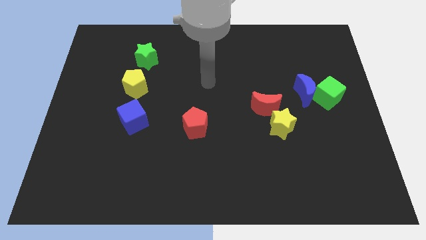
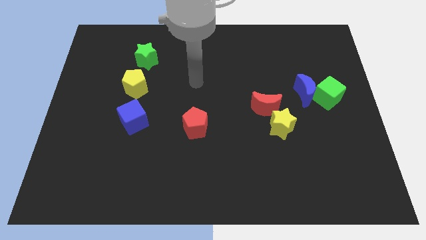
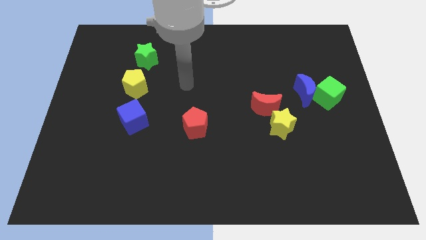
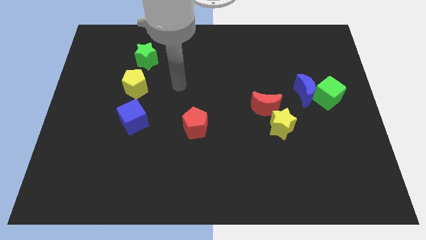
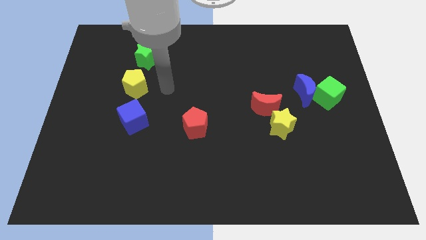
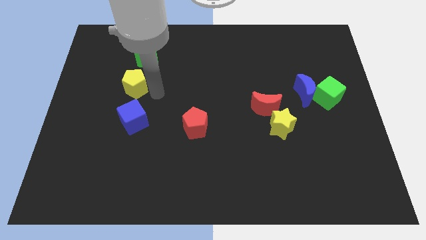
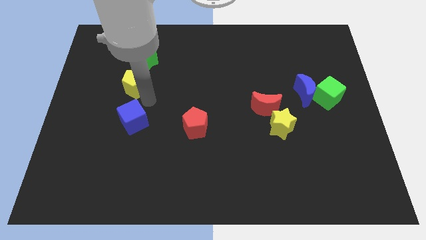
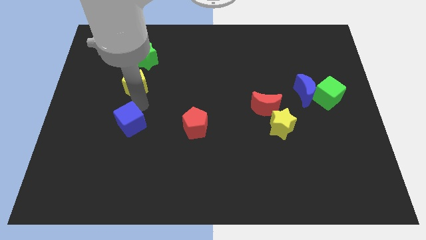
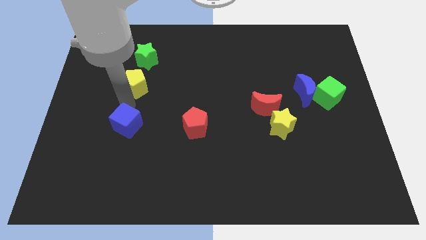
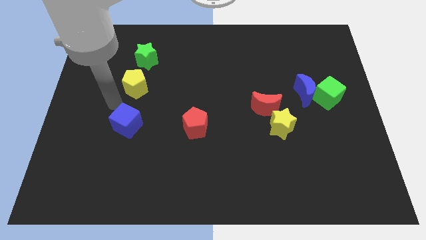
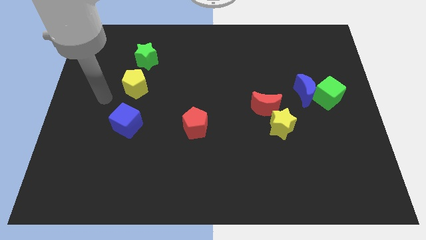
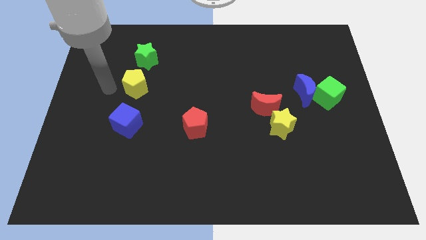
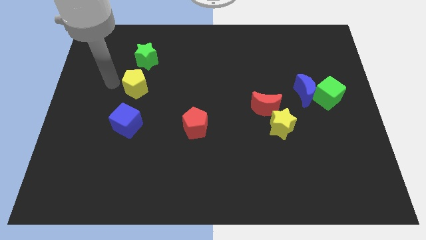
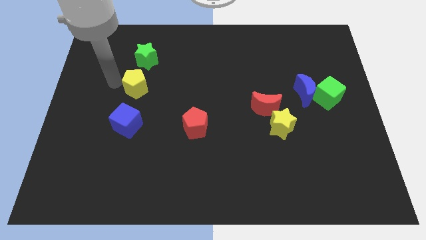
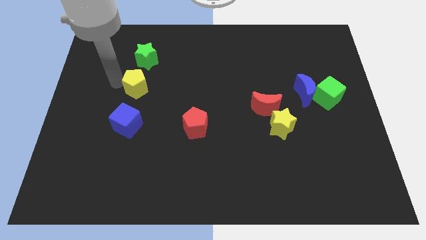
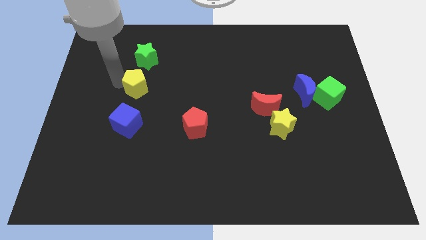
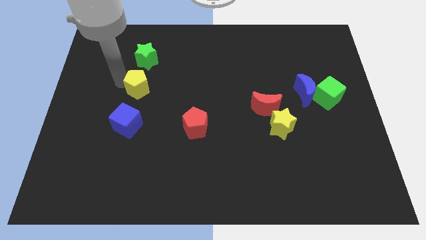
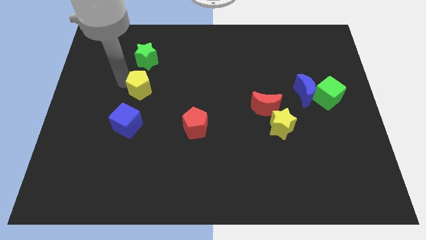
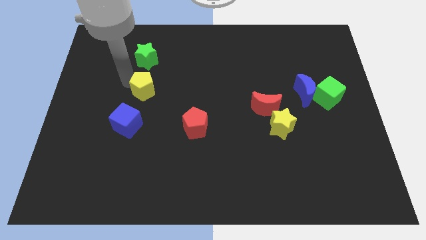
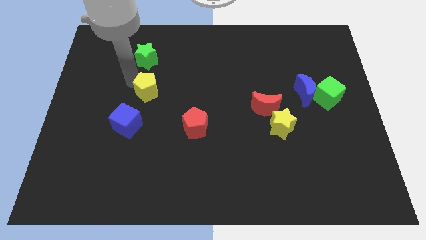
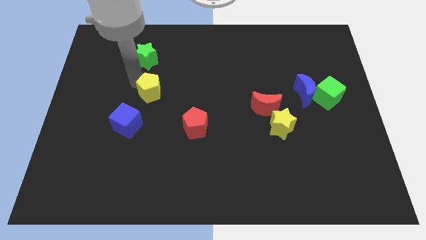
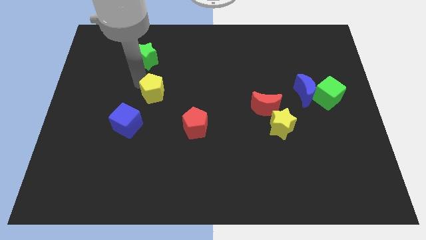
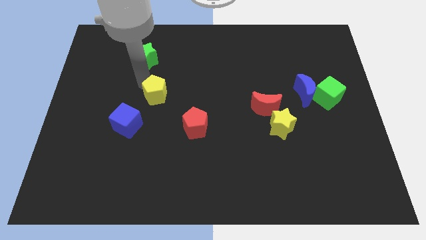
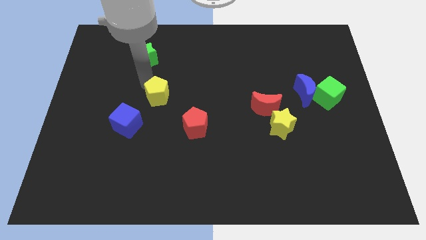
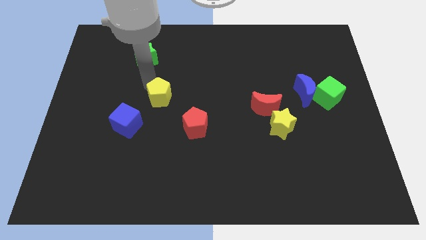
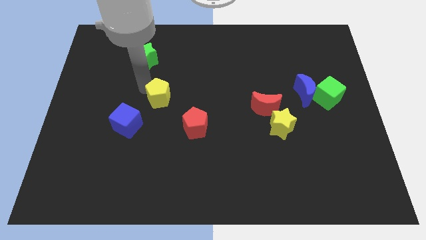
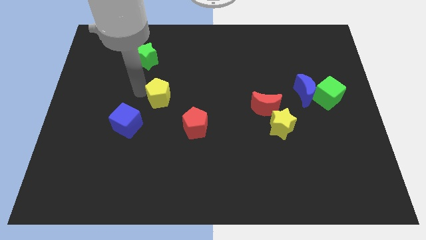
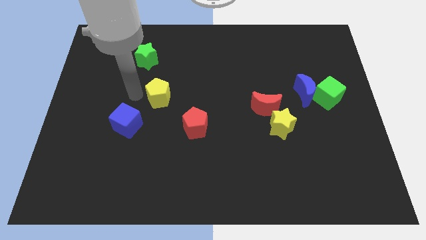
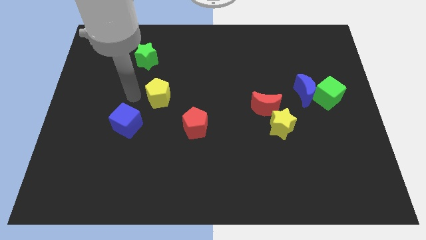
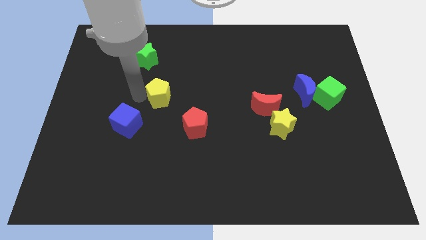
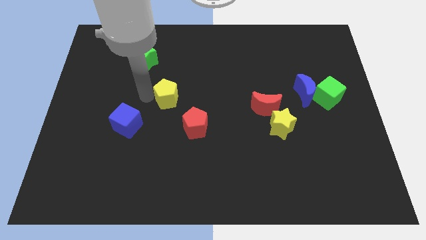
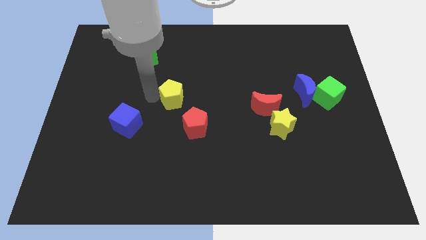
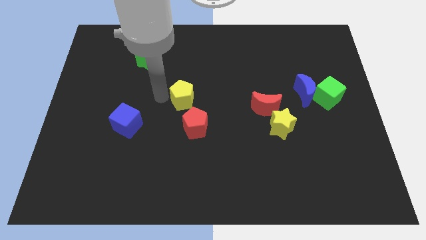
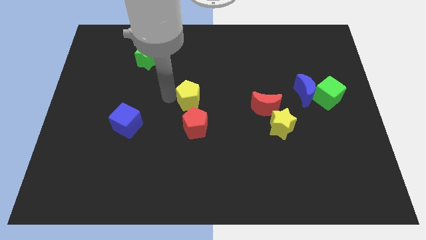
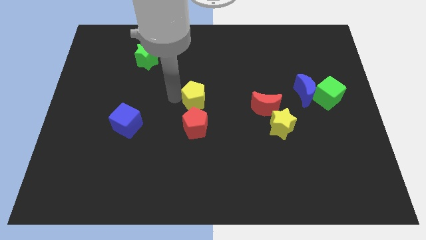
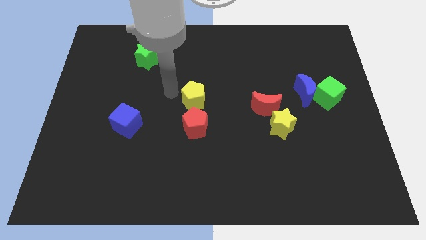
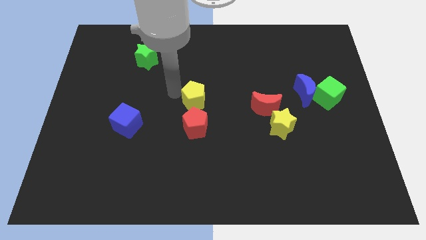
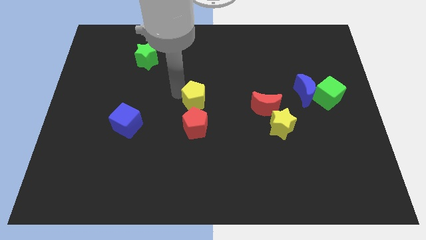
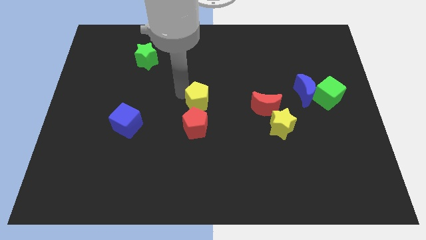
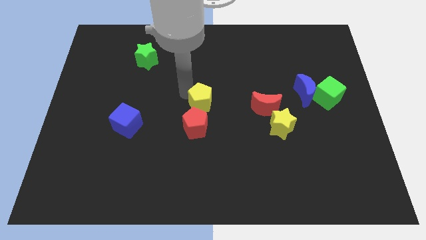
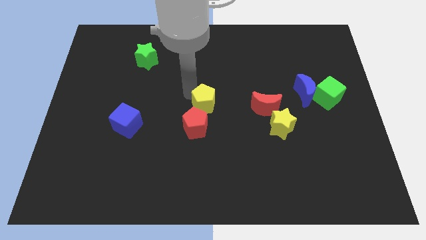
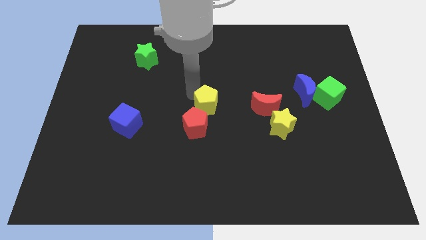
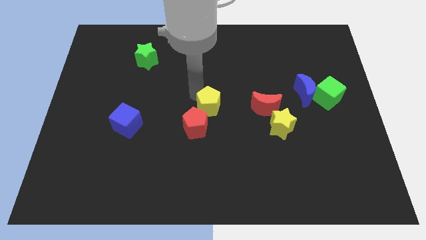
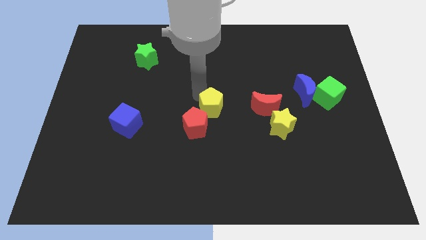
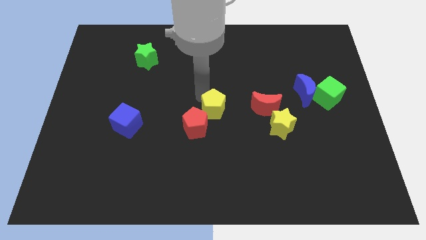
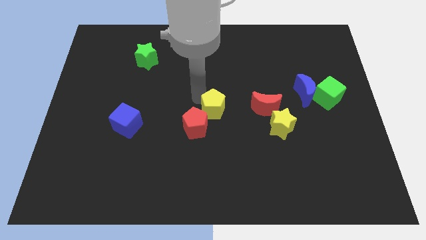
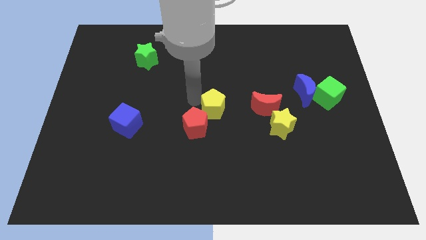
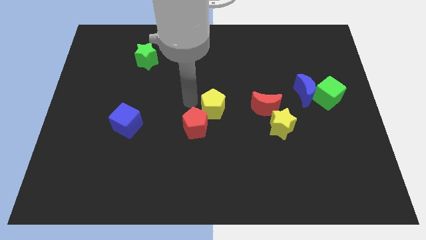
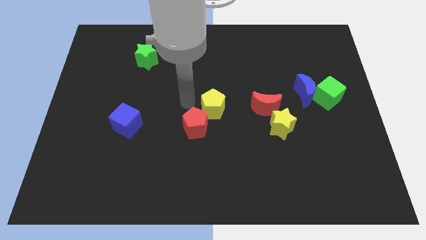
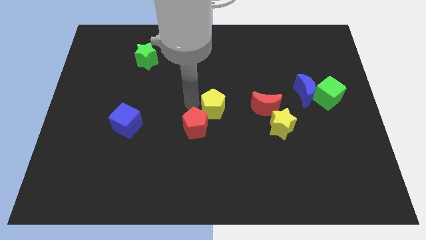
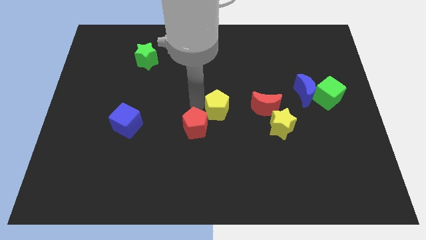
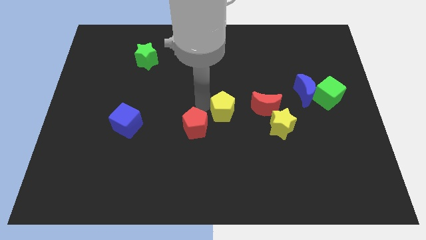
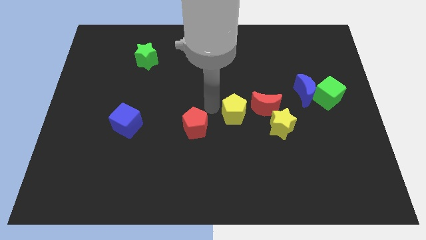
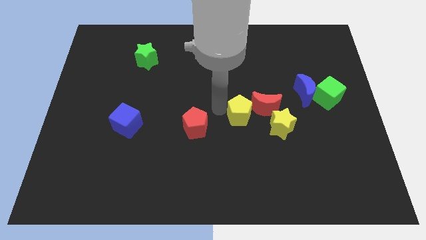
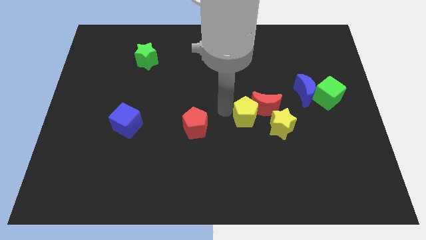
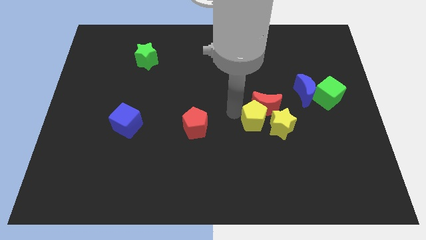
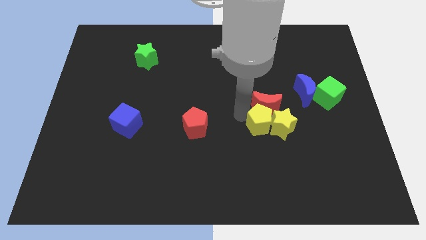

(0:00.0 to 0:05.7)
put the yellow pentagon to the yellow star

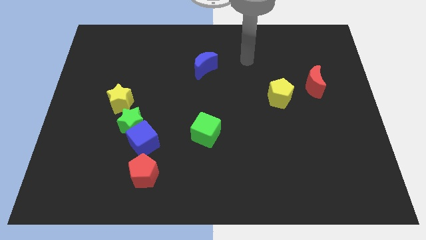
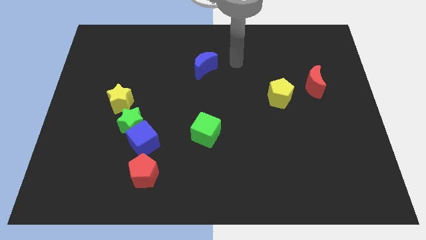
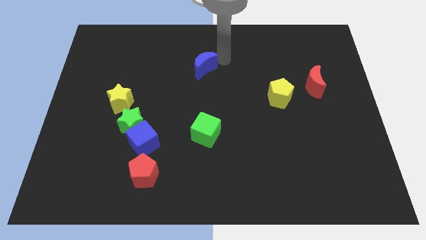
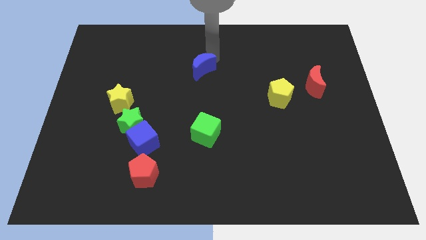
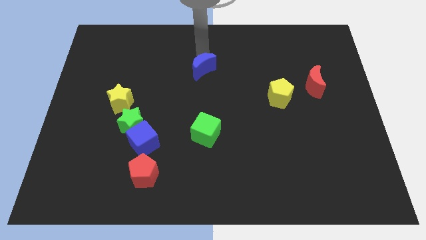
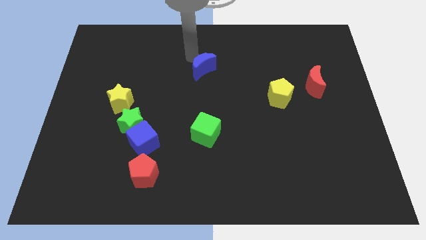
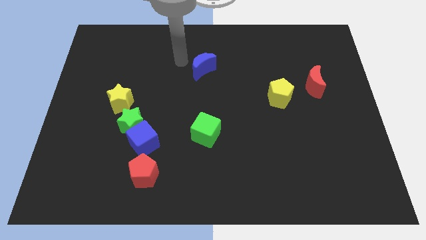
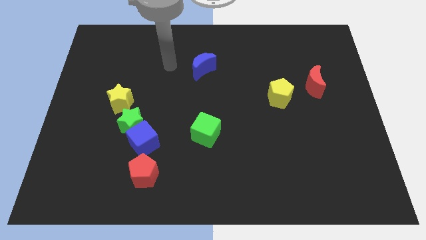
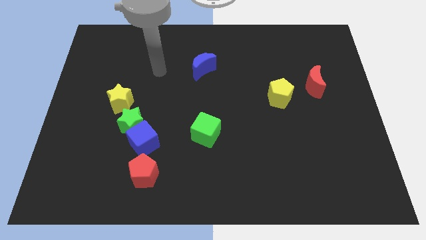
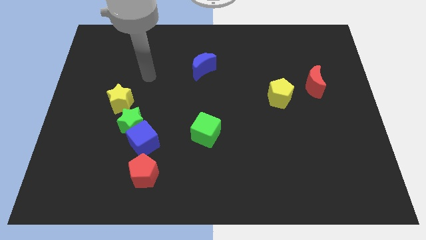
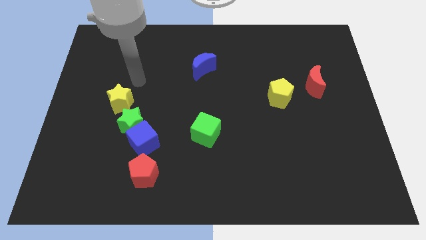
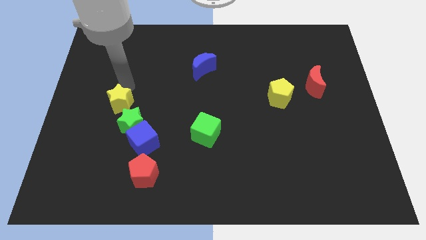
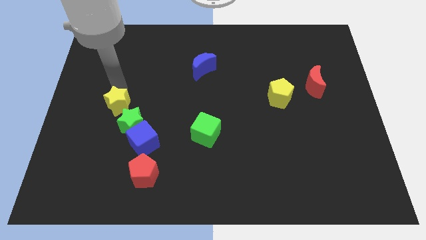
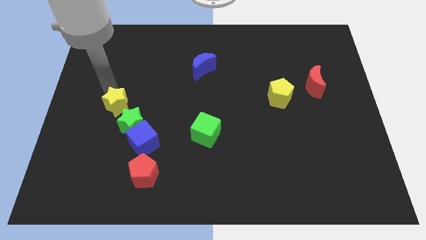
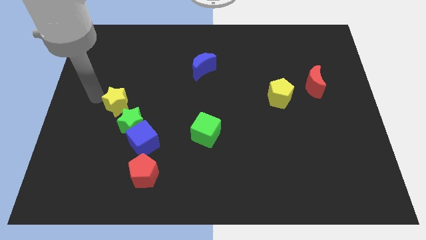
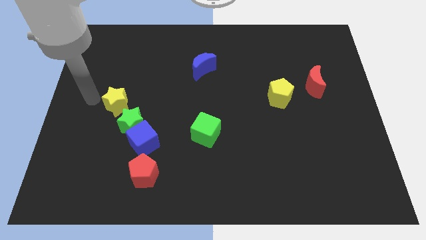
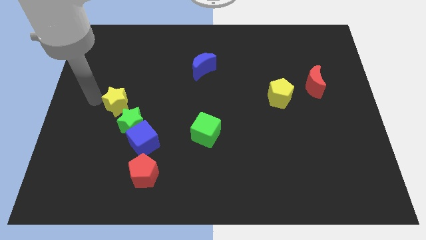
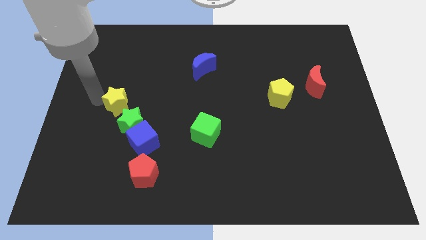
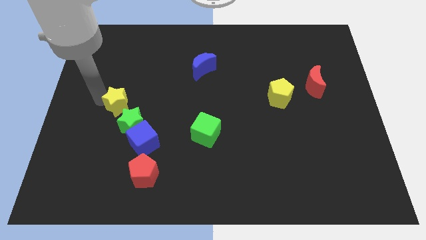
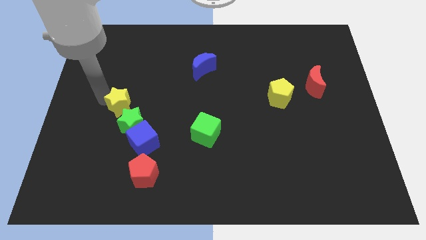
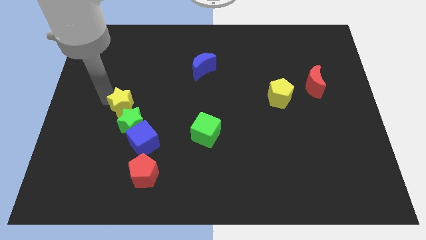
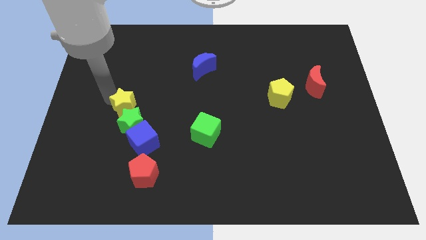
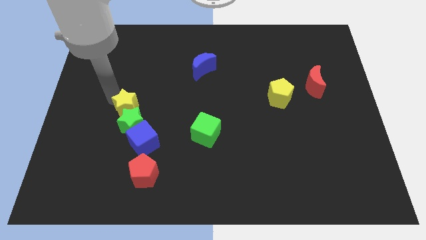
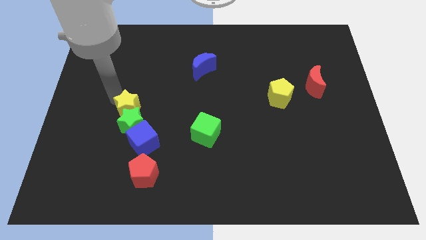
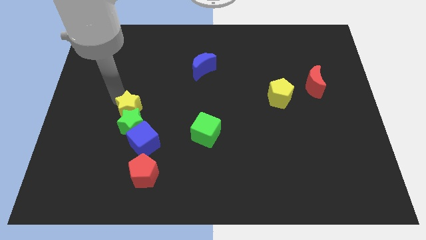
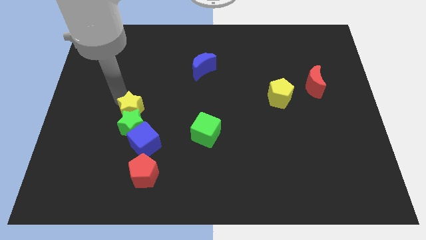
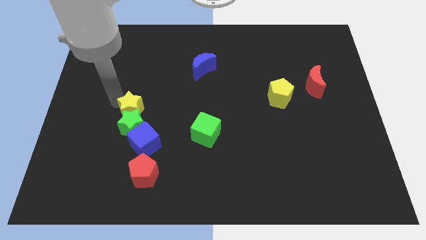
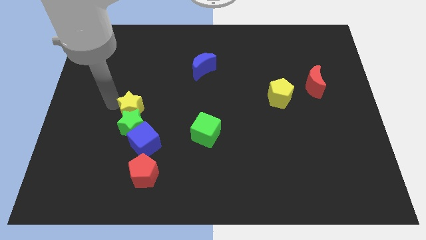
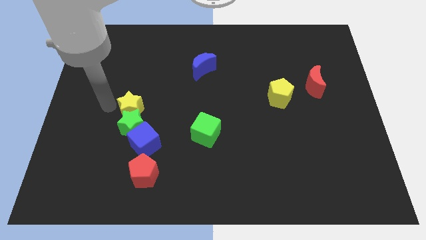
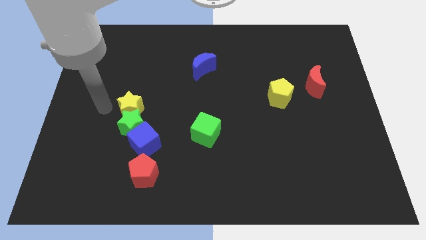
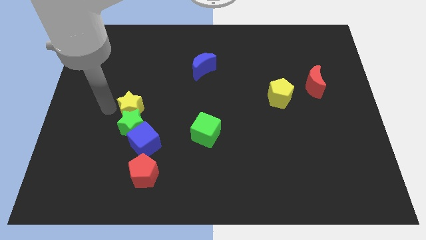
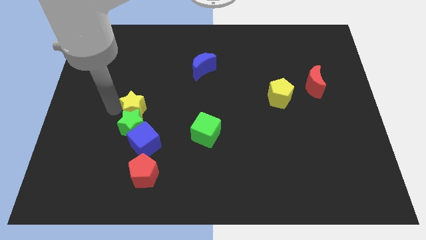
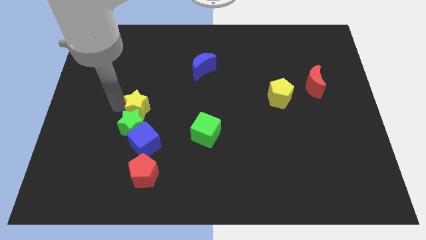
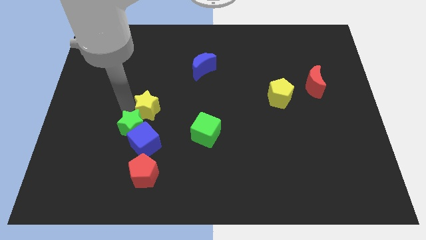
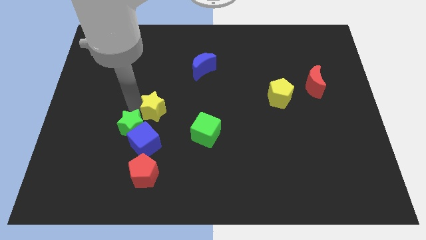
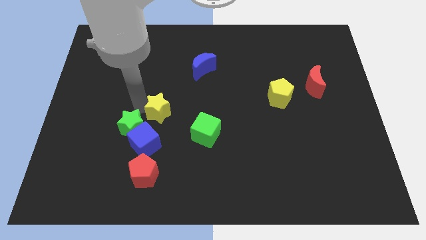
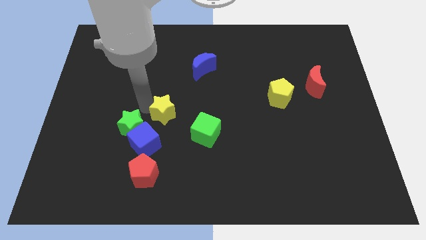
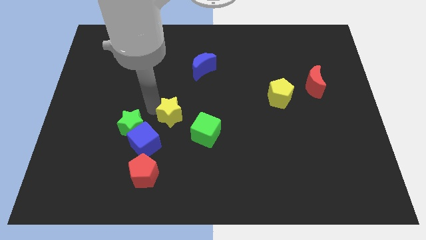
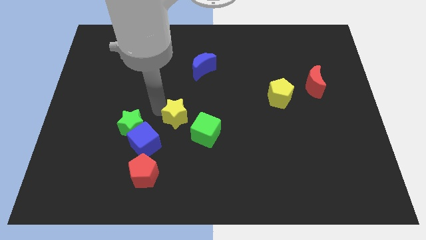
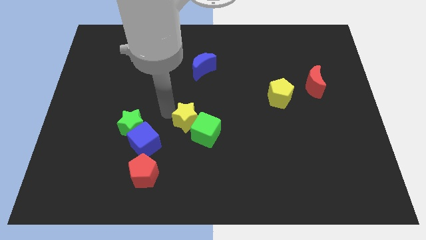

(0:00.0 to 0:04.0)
move the yellow star next to the green cube
